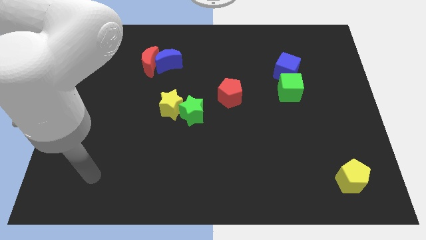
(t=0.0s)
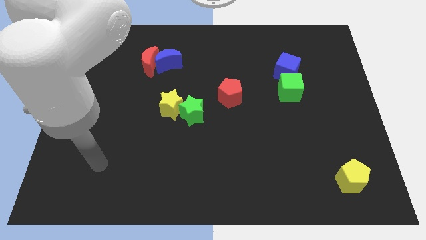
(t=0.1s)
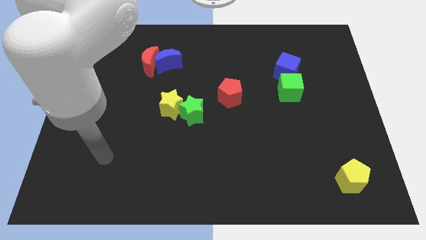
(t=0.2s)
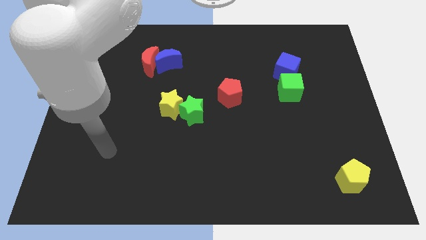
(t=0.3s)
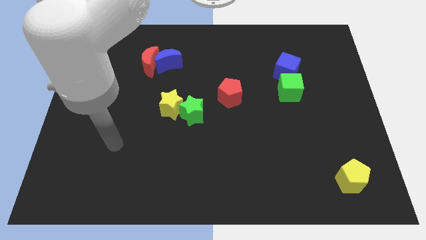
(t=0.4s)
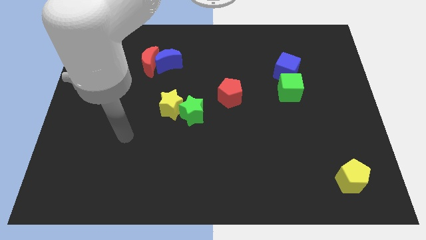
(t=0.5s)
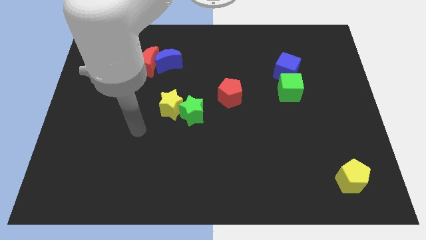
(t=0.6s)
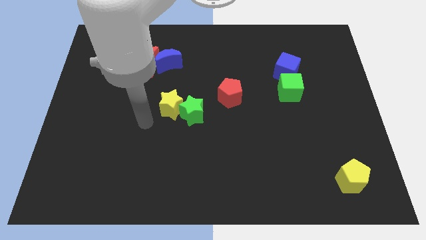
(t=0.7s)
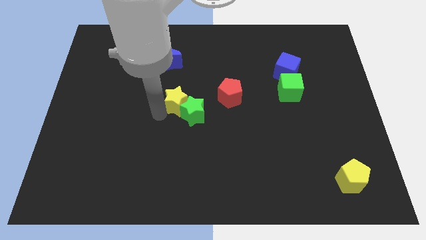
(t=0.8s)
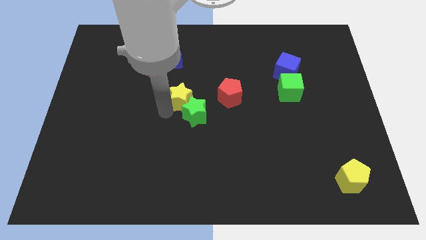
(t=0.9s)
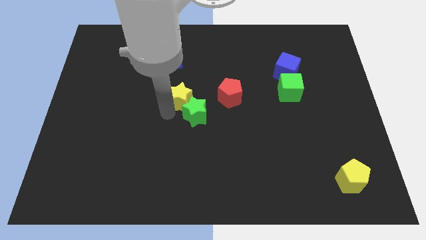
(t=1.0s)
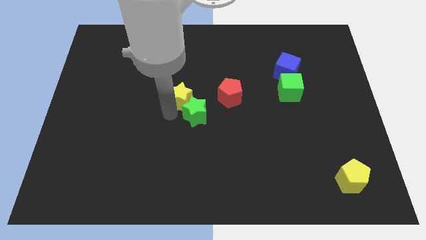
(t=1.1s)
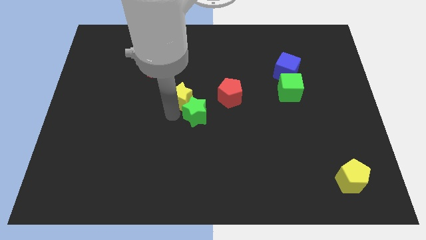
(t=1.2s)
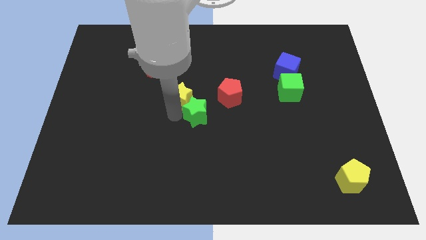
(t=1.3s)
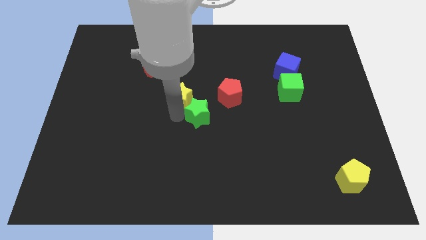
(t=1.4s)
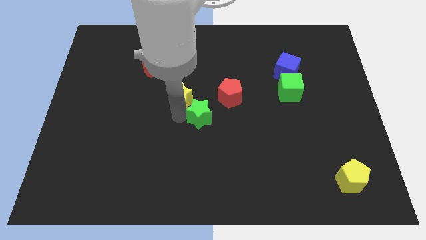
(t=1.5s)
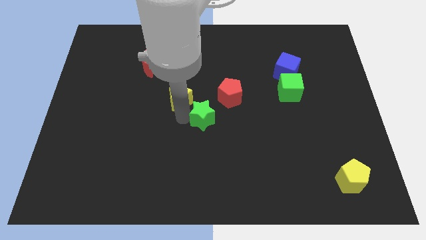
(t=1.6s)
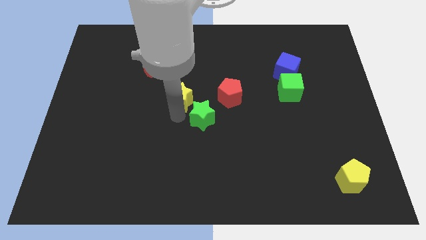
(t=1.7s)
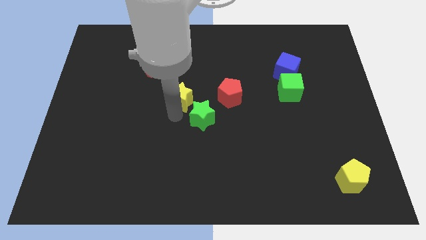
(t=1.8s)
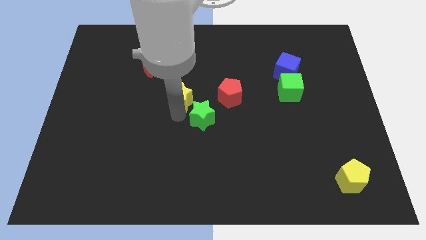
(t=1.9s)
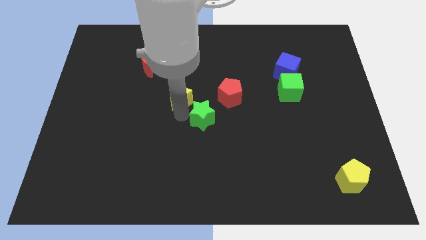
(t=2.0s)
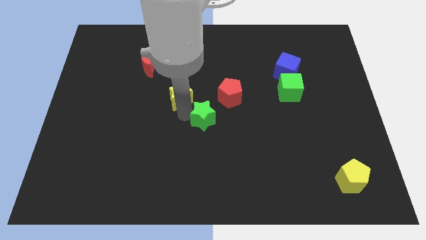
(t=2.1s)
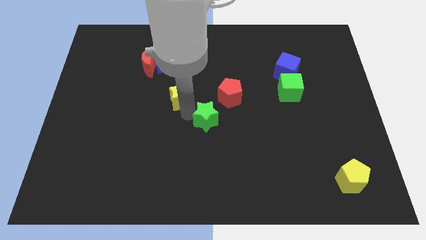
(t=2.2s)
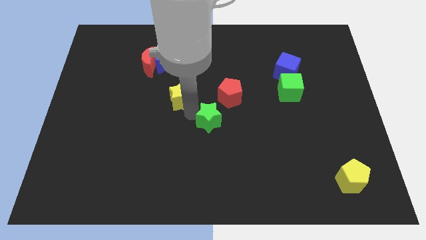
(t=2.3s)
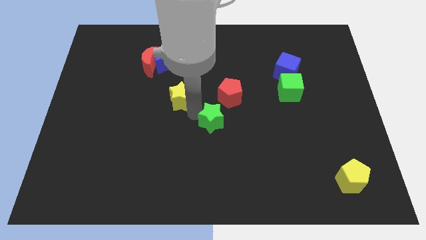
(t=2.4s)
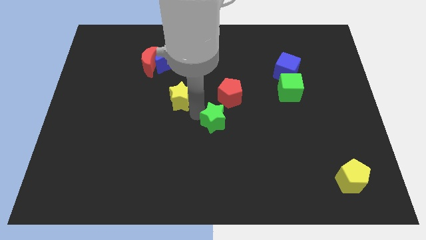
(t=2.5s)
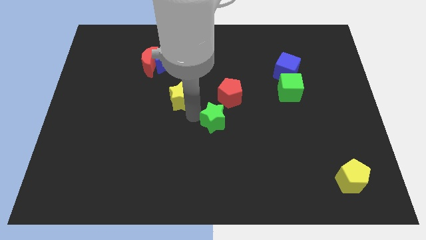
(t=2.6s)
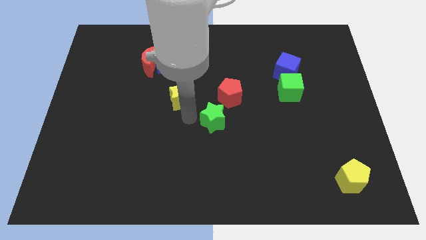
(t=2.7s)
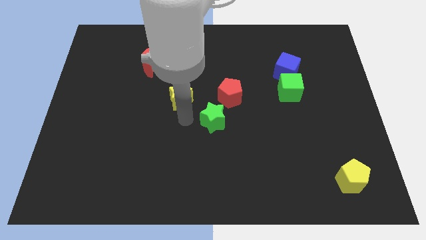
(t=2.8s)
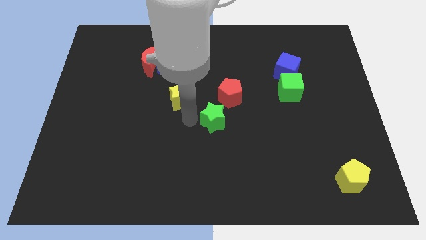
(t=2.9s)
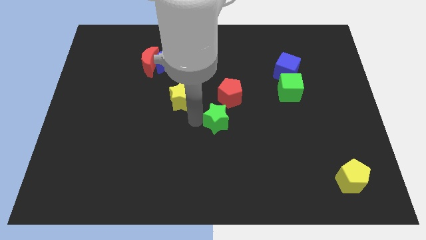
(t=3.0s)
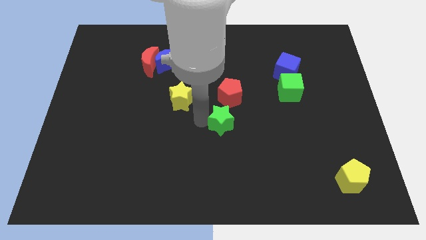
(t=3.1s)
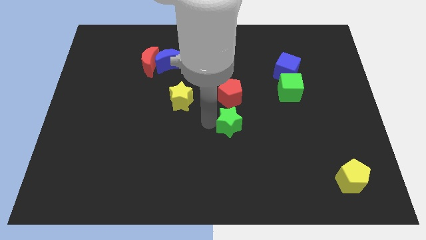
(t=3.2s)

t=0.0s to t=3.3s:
slightly push the green star right

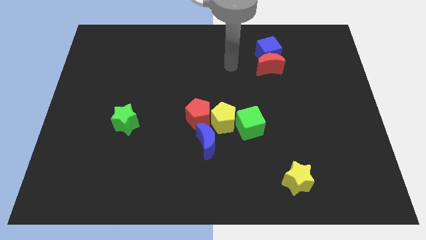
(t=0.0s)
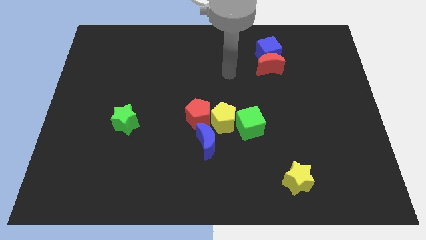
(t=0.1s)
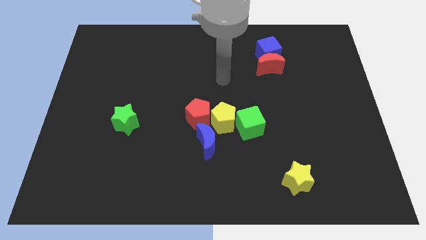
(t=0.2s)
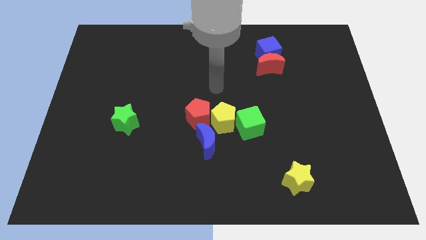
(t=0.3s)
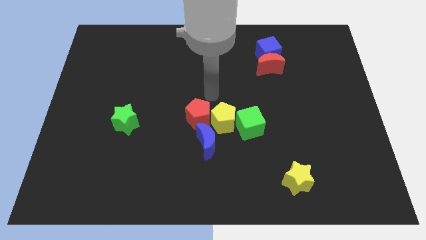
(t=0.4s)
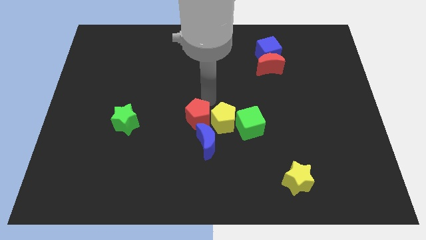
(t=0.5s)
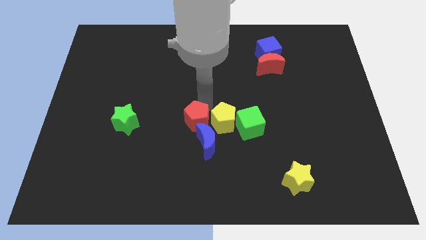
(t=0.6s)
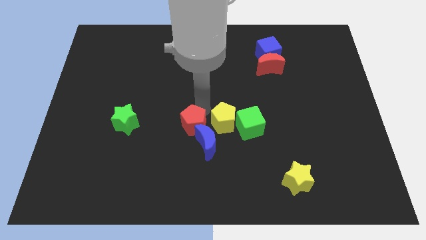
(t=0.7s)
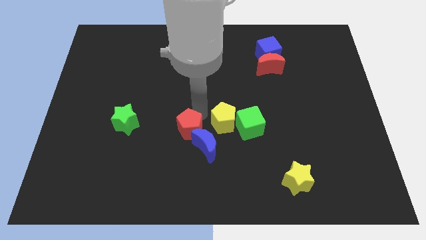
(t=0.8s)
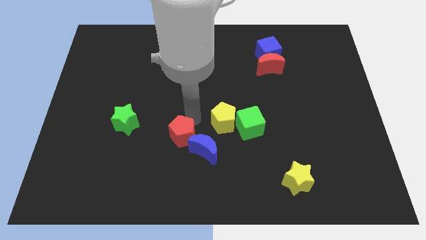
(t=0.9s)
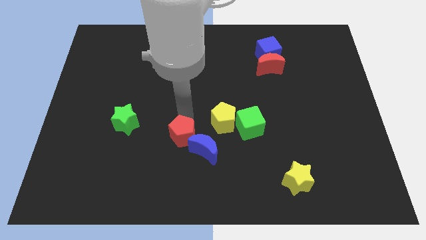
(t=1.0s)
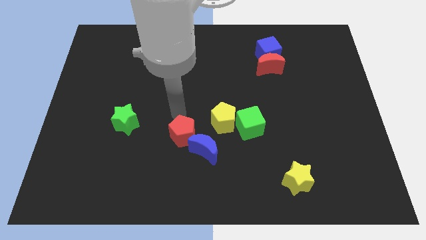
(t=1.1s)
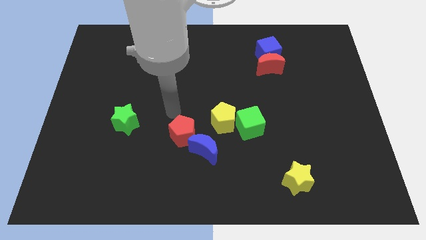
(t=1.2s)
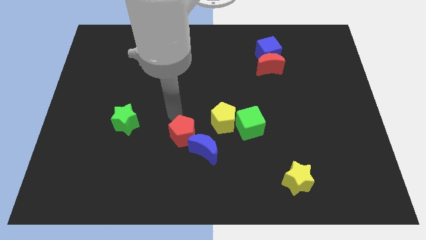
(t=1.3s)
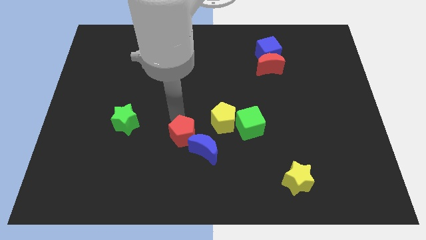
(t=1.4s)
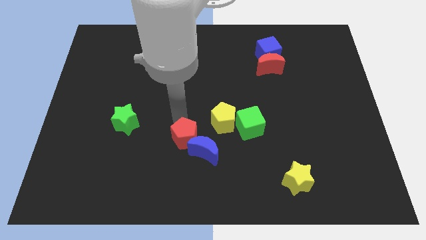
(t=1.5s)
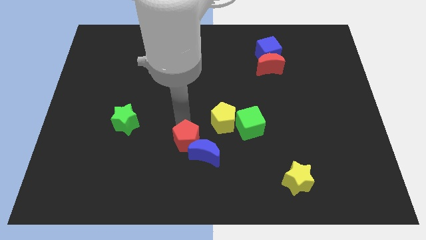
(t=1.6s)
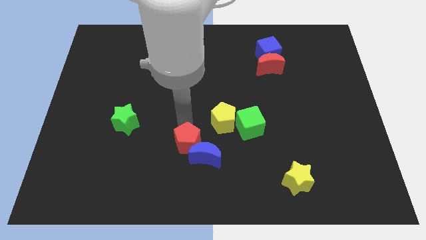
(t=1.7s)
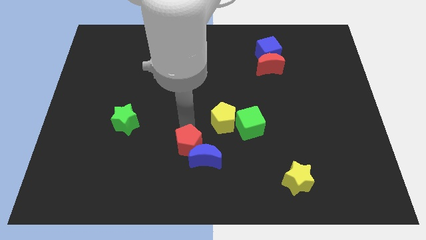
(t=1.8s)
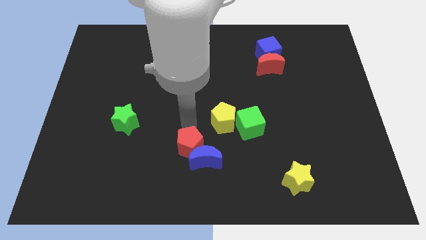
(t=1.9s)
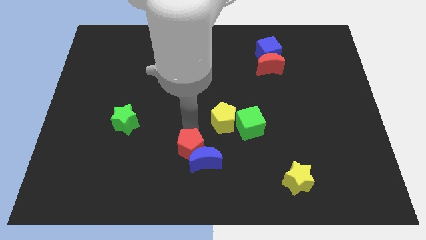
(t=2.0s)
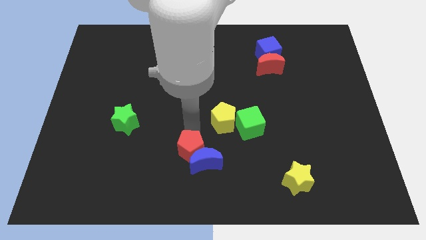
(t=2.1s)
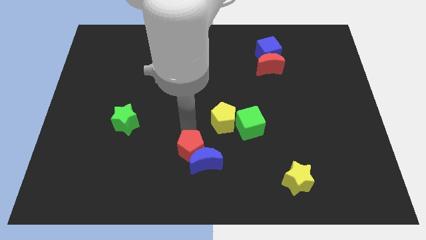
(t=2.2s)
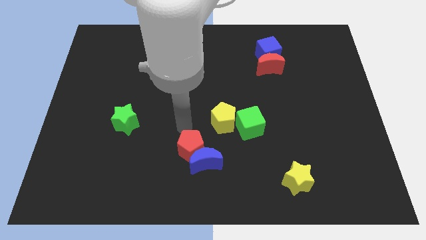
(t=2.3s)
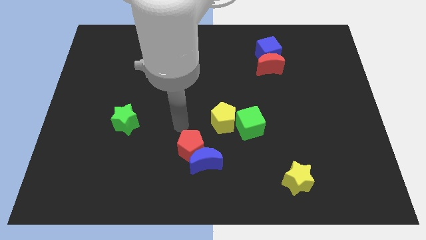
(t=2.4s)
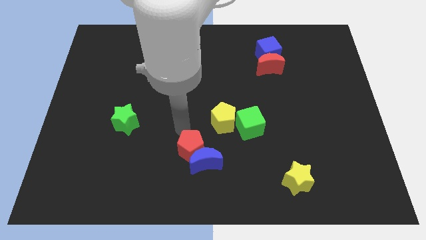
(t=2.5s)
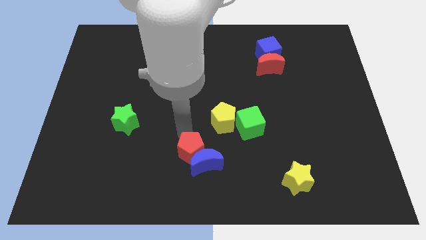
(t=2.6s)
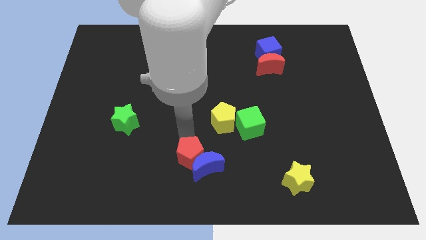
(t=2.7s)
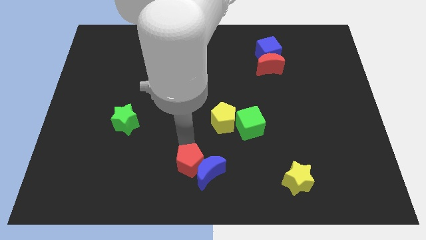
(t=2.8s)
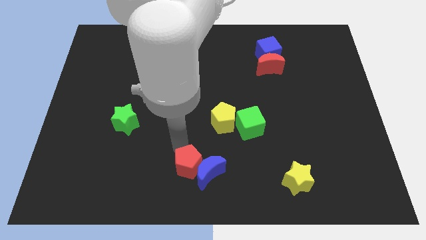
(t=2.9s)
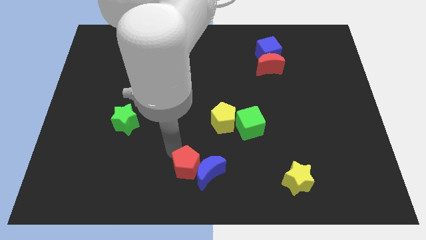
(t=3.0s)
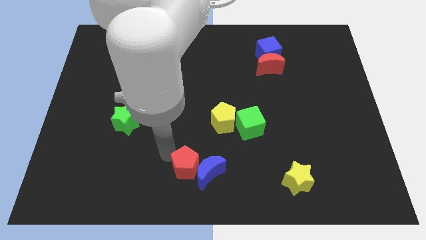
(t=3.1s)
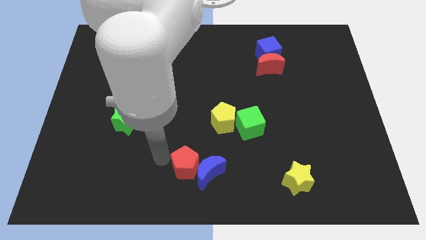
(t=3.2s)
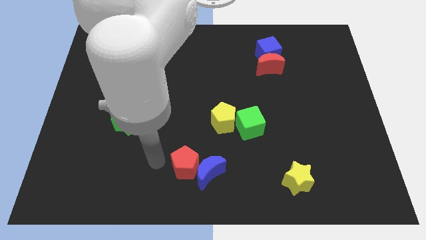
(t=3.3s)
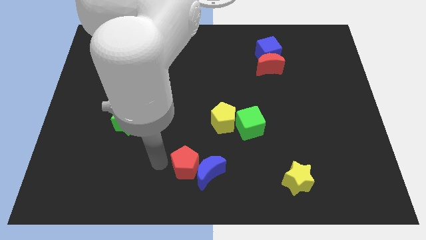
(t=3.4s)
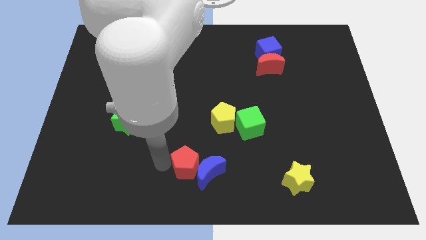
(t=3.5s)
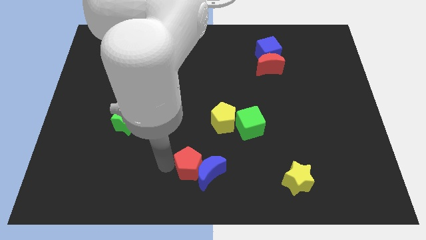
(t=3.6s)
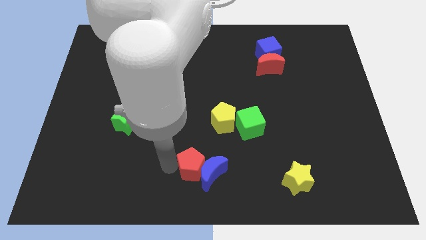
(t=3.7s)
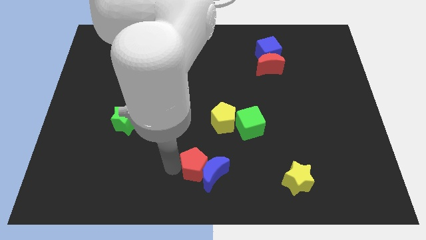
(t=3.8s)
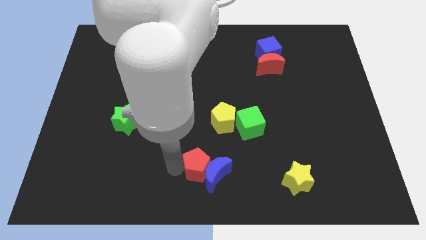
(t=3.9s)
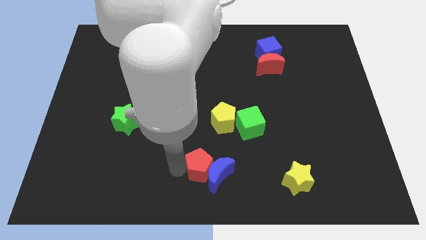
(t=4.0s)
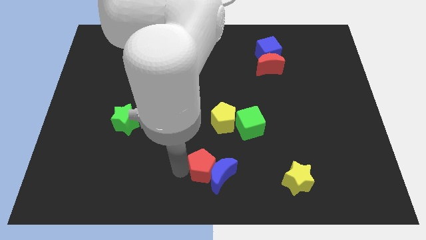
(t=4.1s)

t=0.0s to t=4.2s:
slightly push the red pentagon downwards and then right

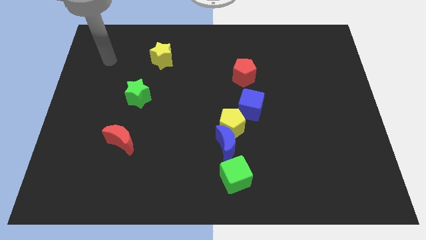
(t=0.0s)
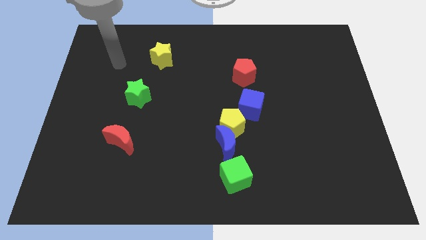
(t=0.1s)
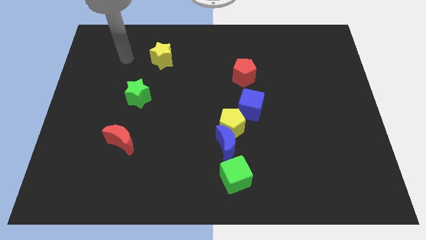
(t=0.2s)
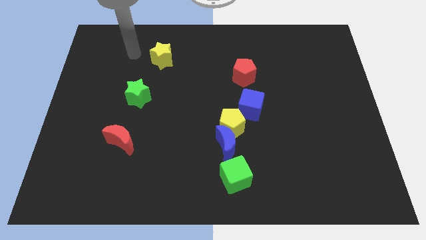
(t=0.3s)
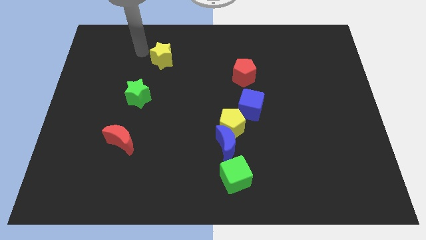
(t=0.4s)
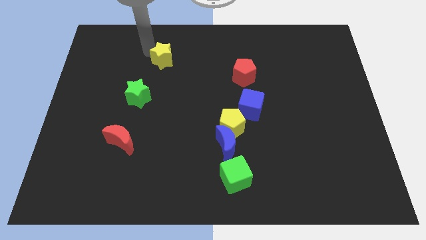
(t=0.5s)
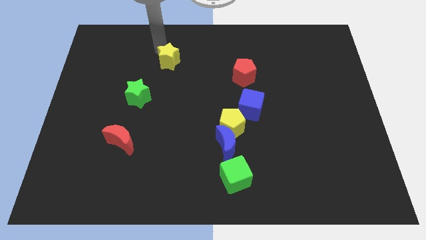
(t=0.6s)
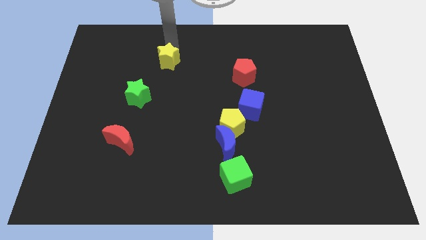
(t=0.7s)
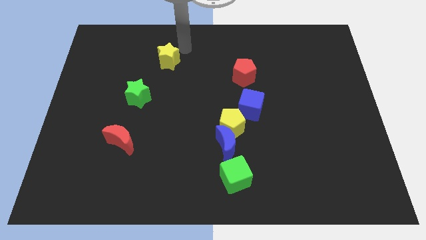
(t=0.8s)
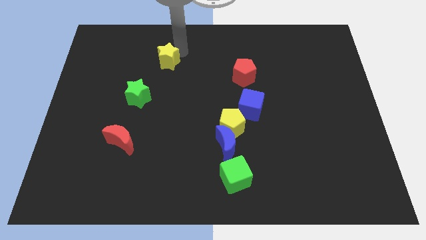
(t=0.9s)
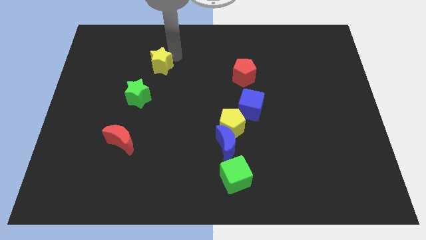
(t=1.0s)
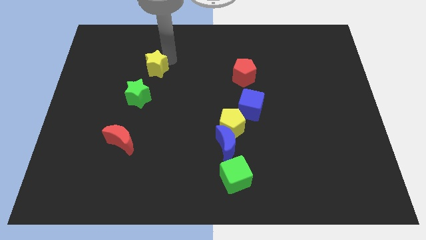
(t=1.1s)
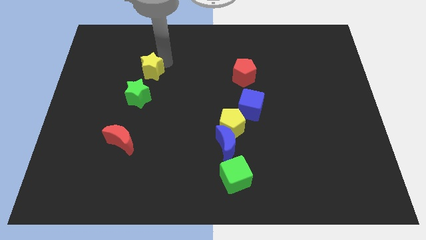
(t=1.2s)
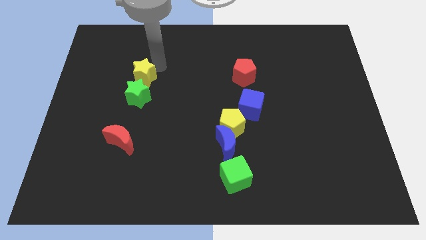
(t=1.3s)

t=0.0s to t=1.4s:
slide the yellow star somewhat diagonally downwards and to the left
